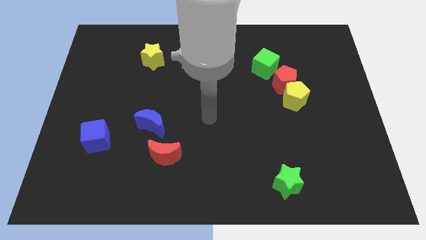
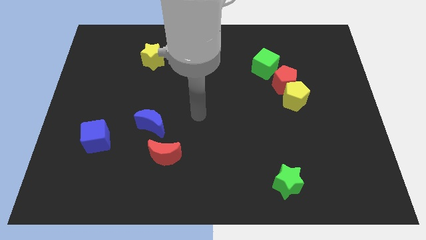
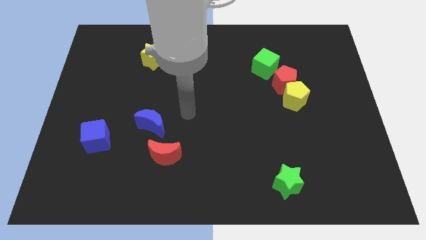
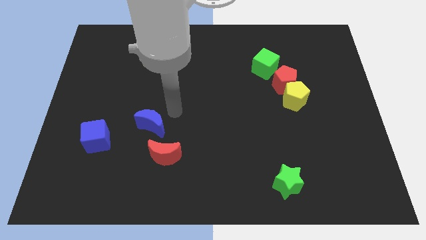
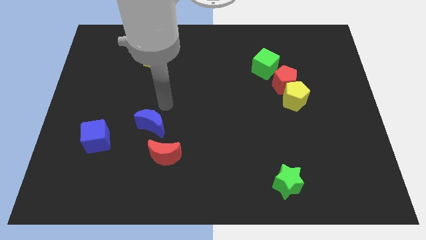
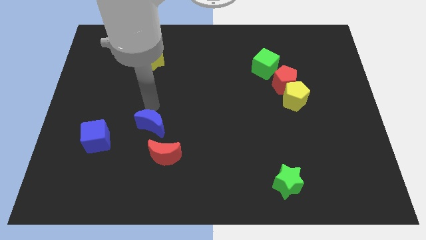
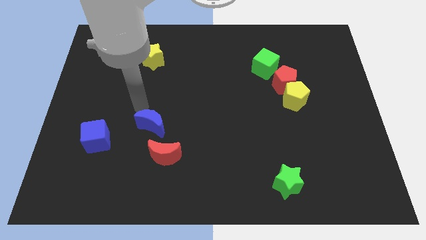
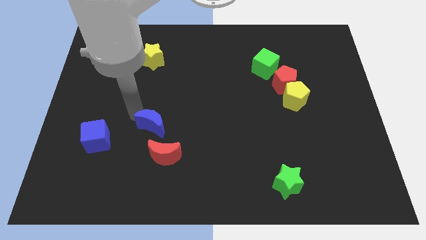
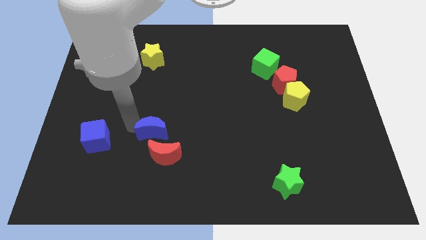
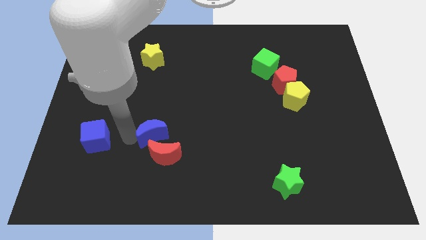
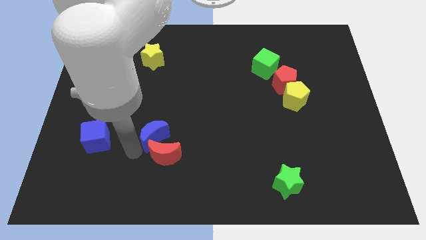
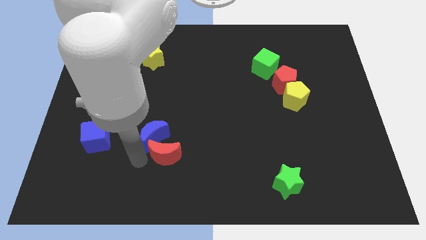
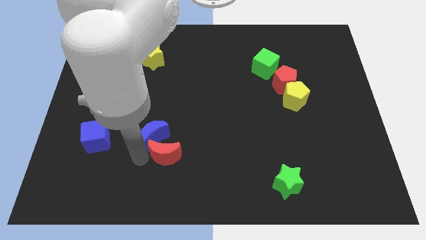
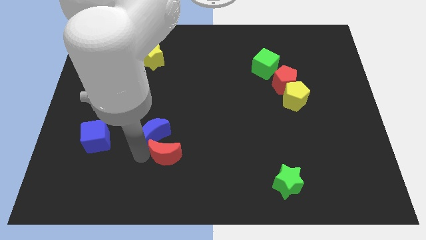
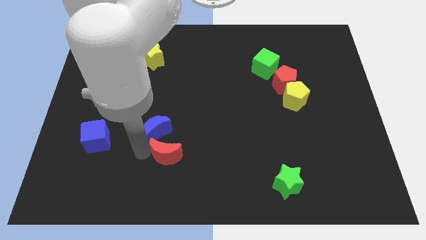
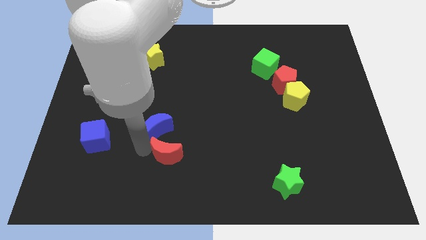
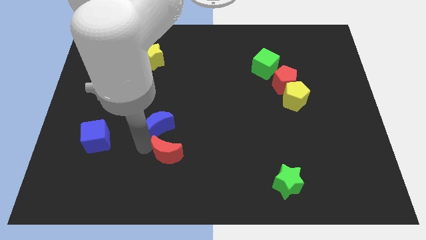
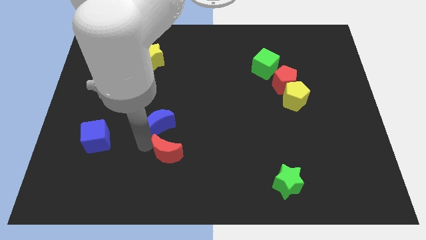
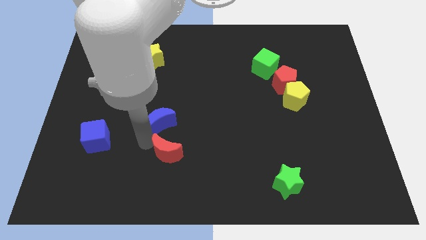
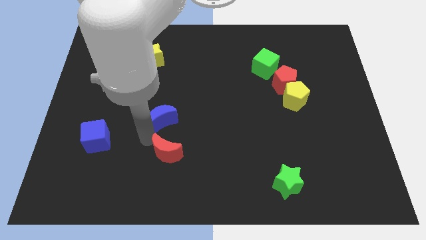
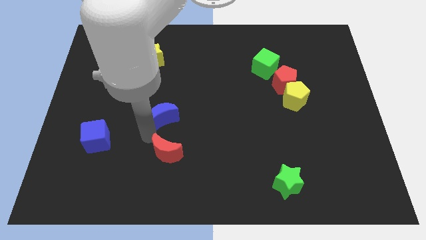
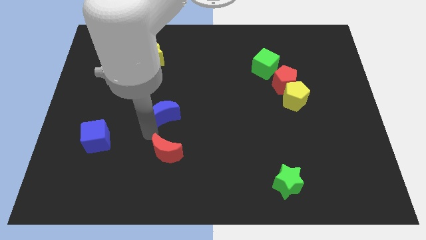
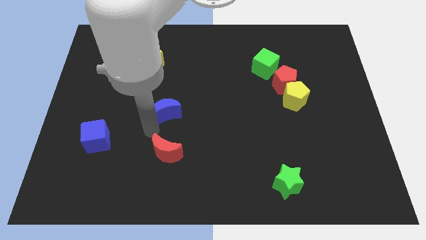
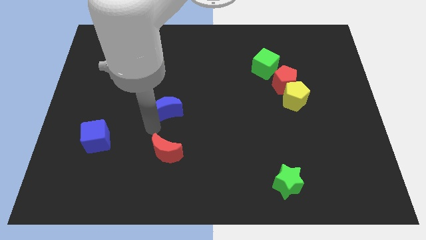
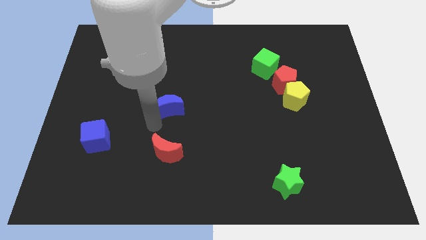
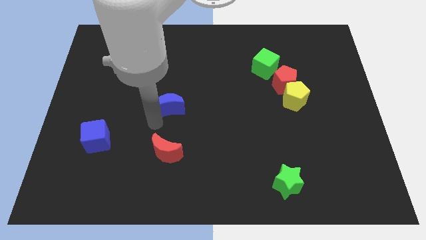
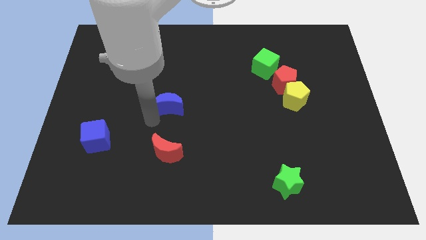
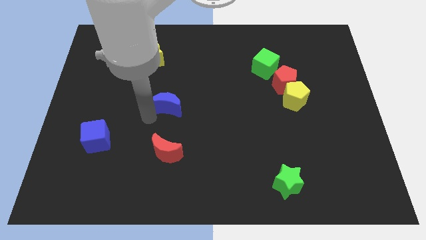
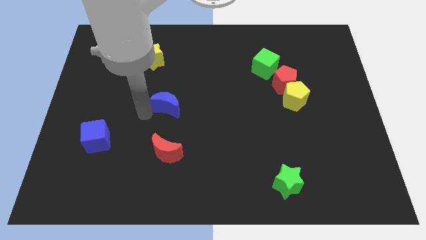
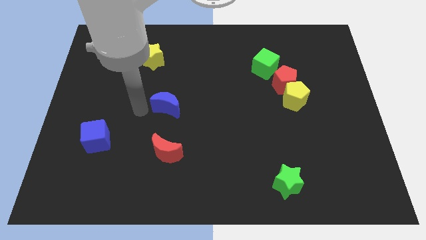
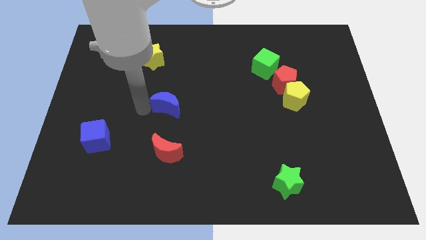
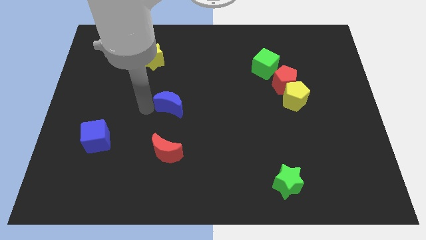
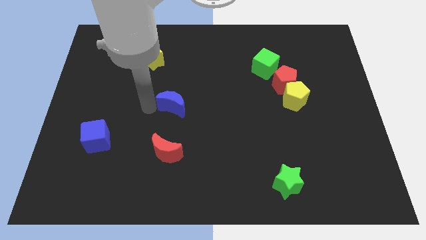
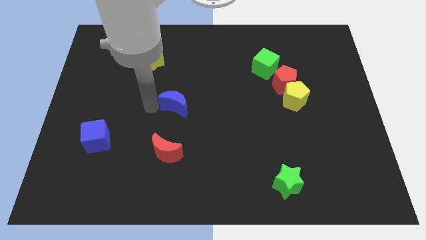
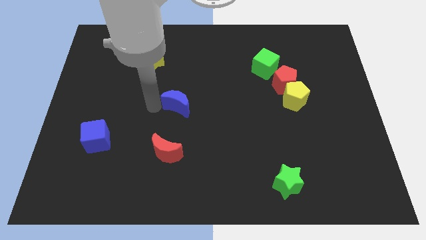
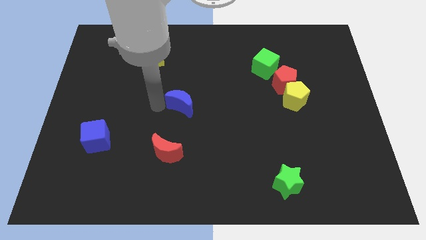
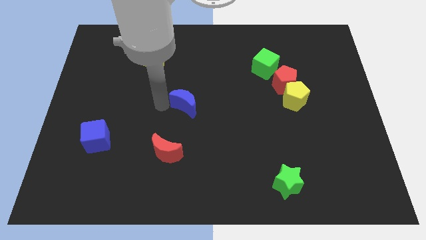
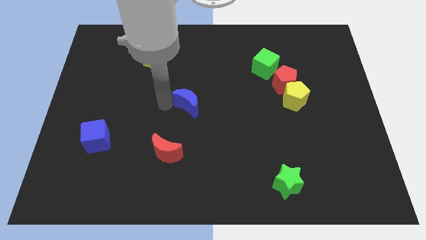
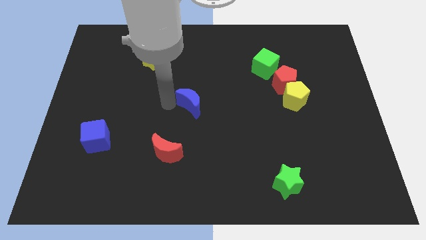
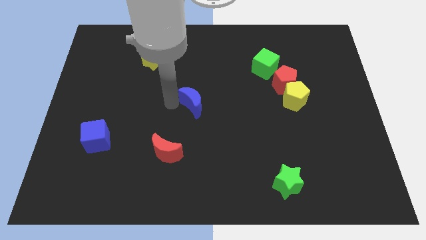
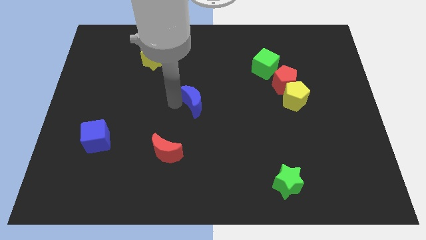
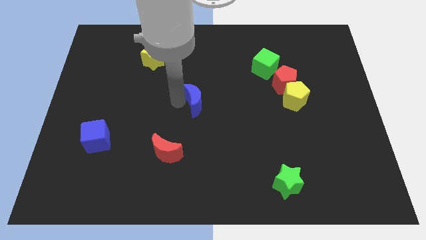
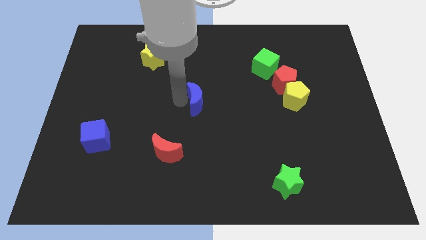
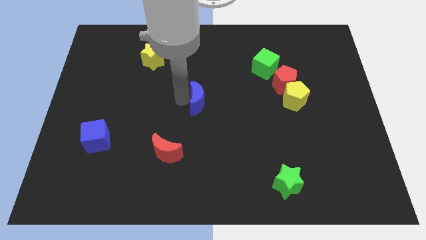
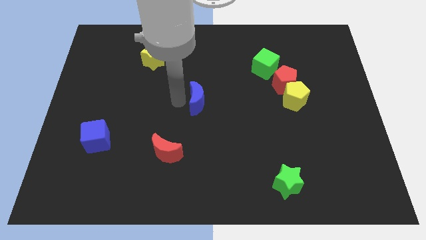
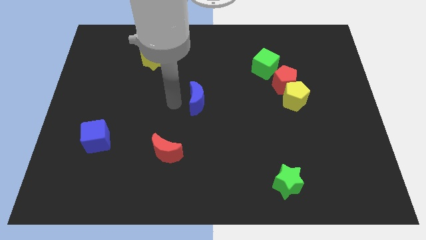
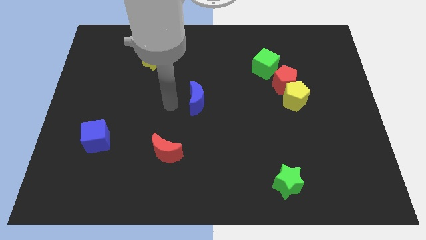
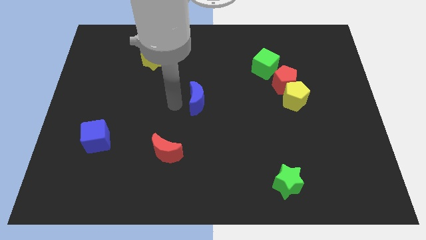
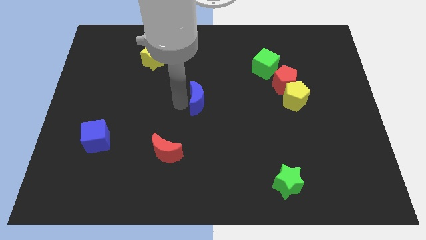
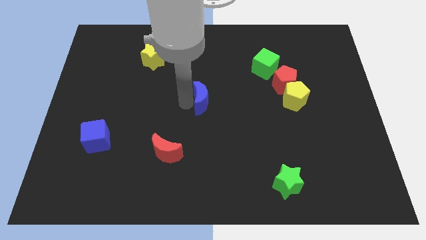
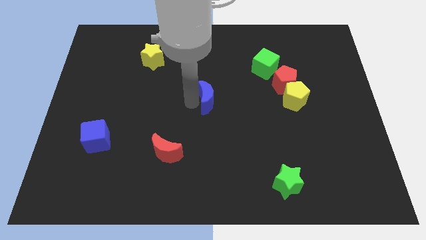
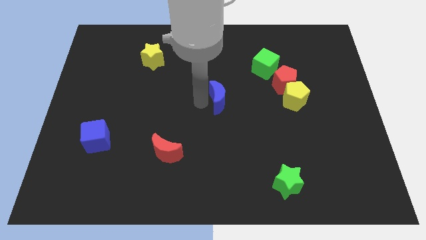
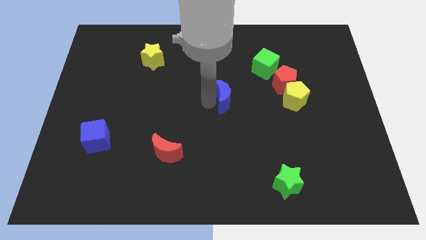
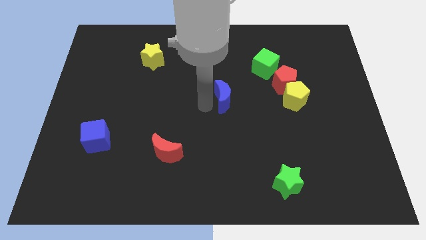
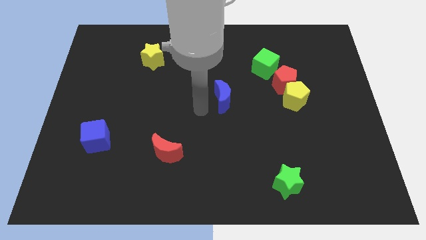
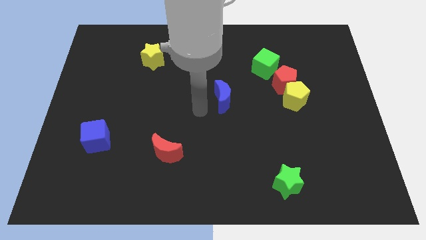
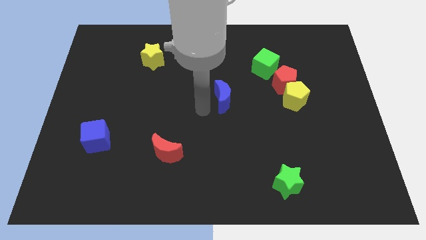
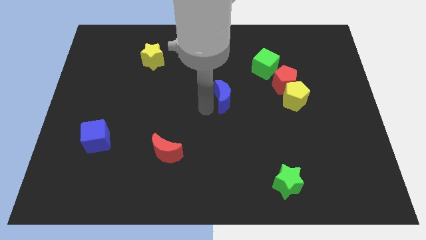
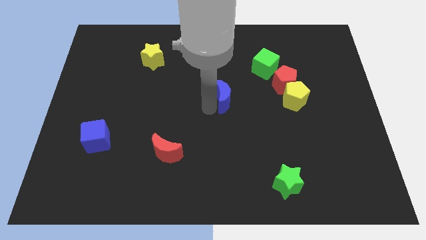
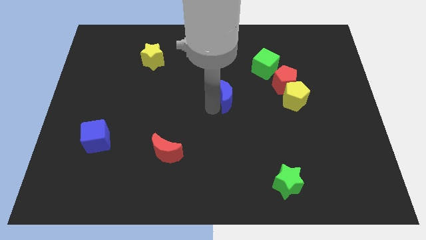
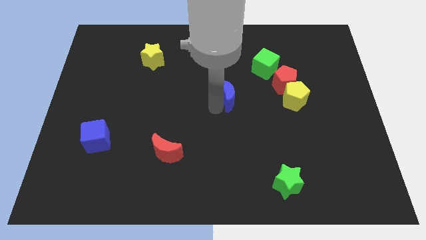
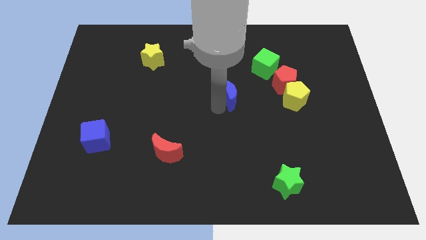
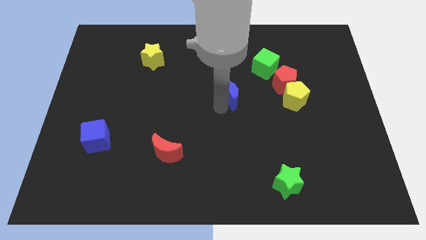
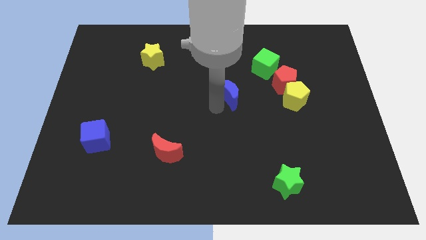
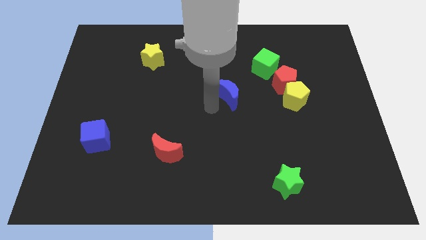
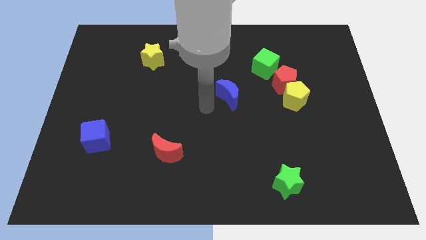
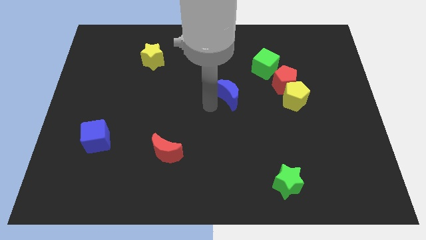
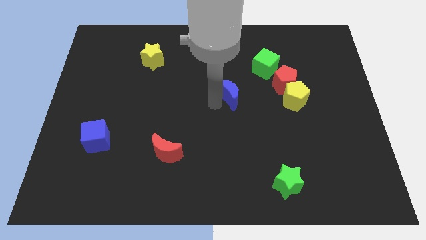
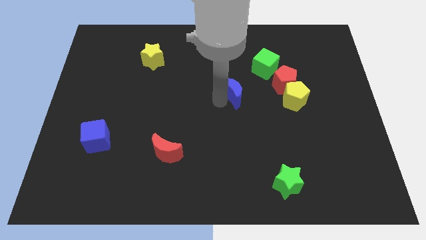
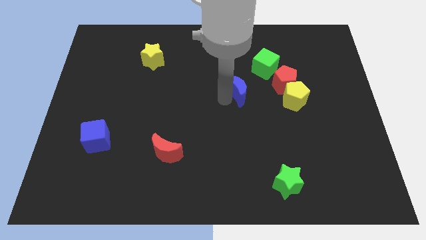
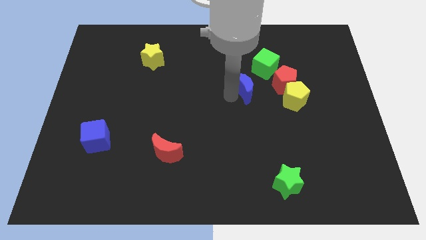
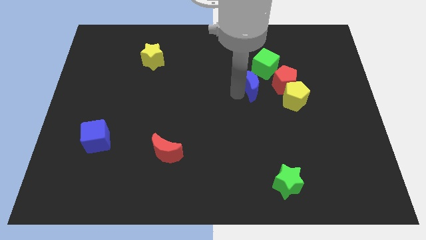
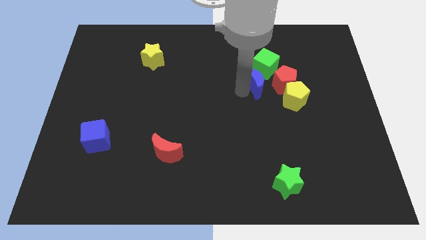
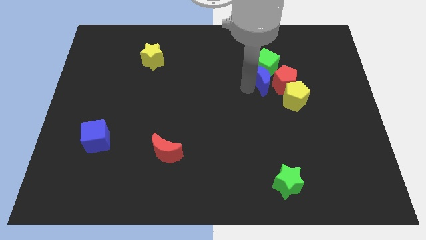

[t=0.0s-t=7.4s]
slide the blue moon next to the red pentagon

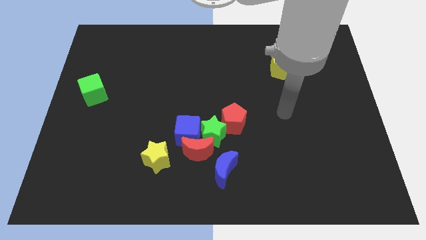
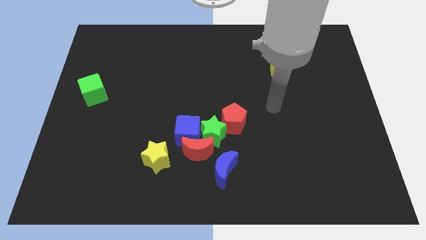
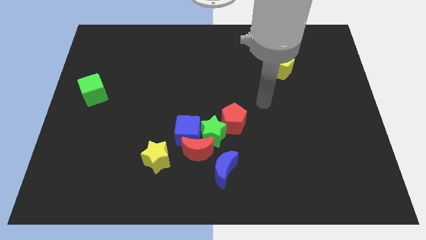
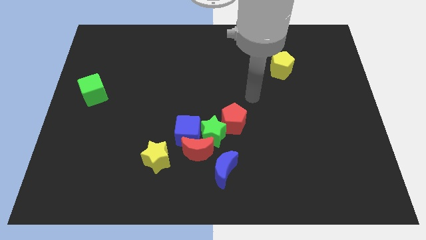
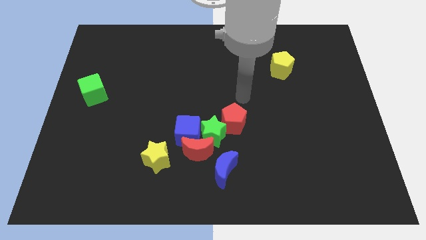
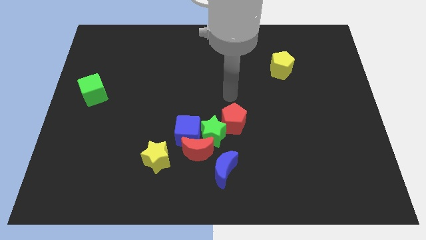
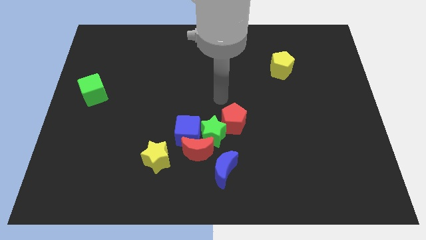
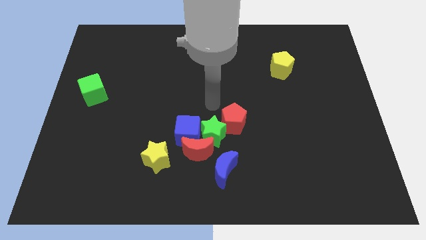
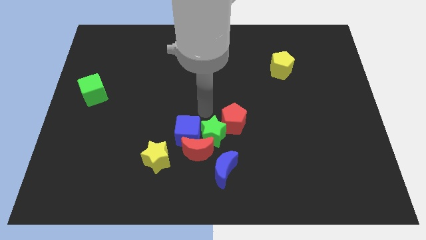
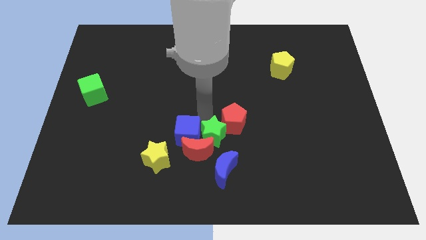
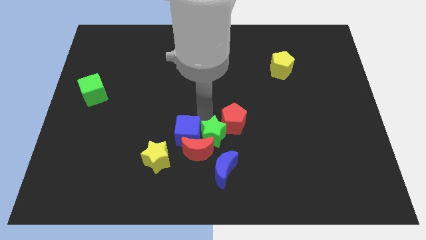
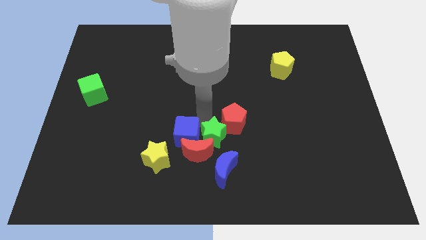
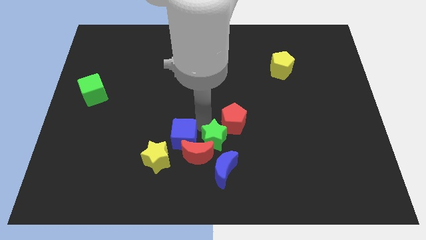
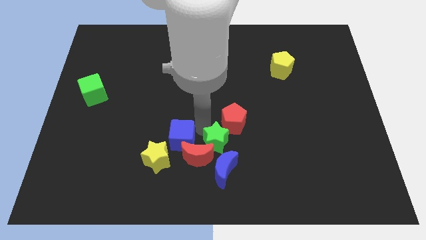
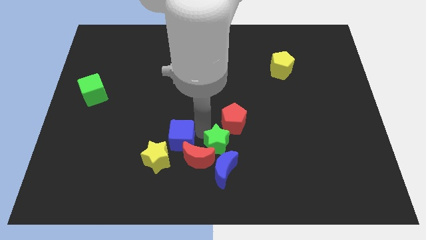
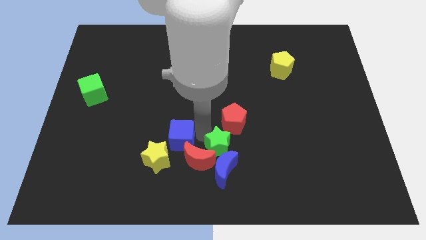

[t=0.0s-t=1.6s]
slide the green star towards the blue moon
